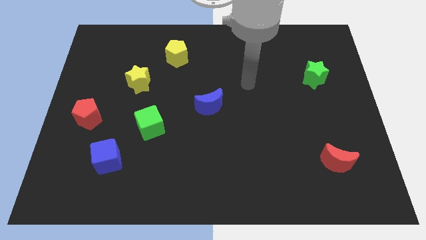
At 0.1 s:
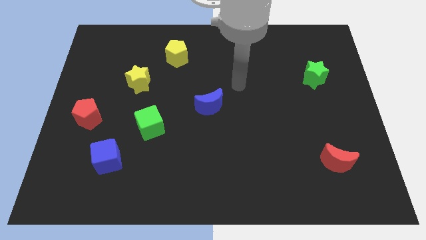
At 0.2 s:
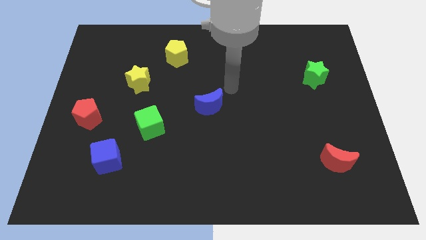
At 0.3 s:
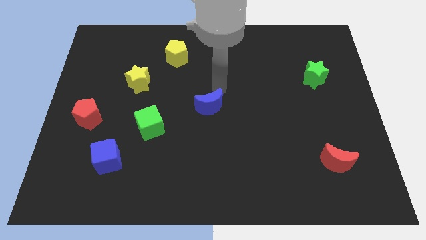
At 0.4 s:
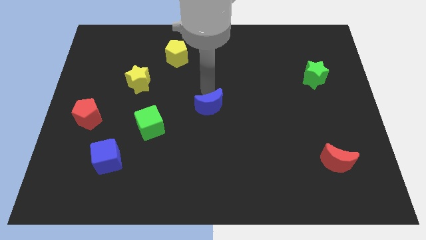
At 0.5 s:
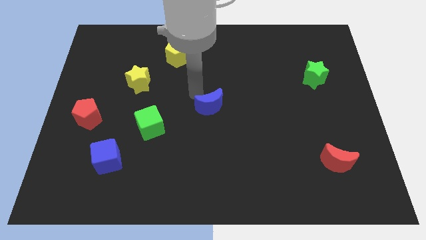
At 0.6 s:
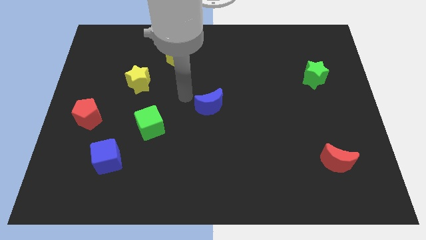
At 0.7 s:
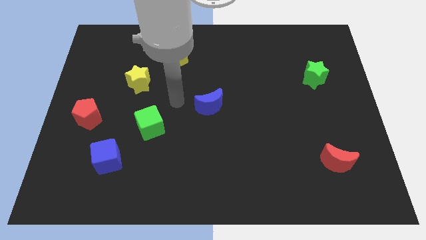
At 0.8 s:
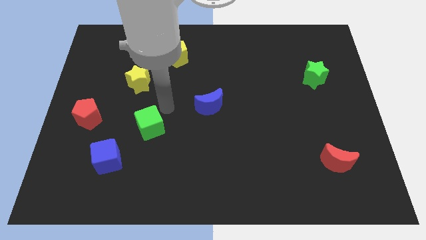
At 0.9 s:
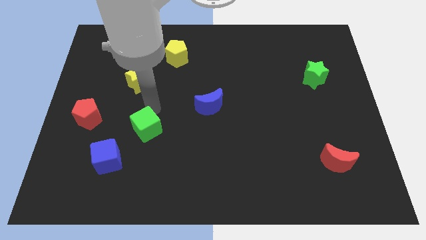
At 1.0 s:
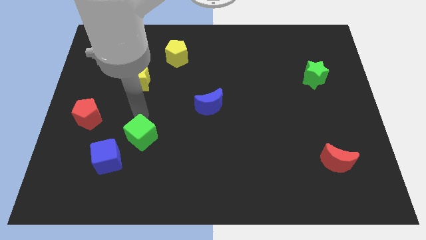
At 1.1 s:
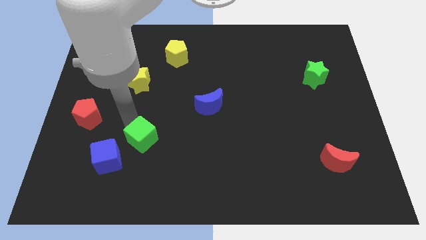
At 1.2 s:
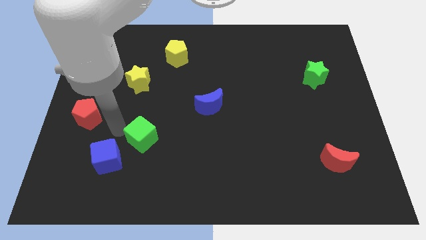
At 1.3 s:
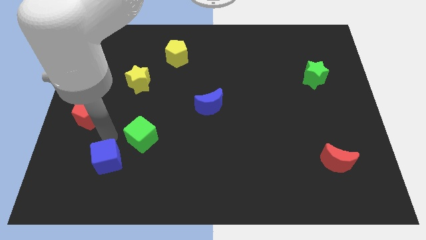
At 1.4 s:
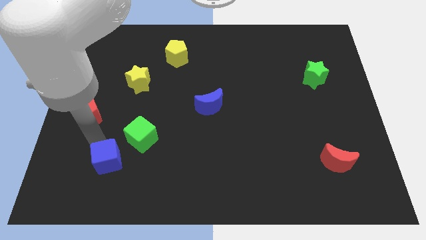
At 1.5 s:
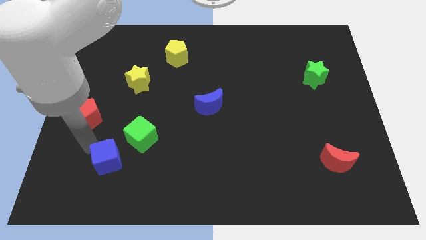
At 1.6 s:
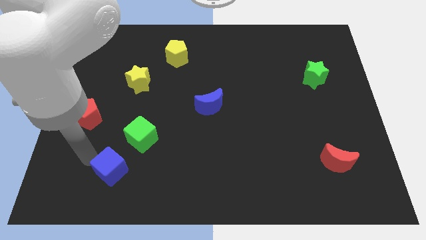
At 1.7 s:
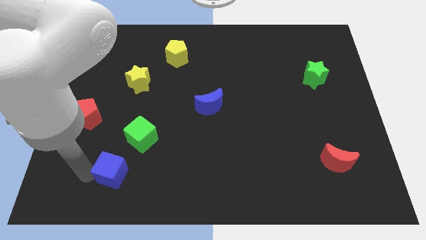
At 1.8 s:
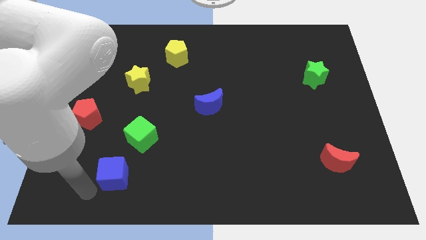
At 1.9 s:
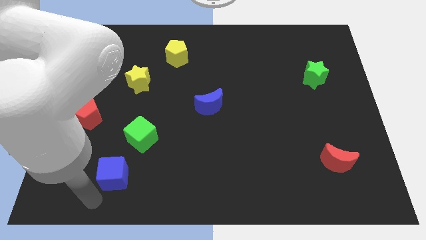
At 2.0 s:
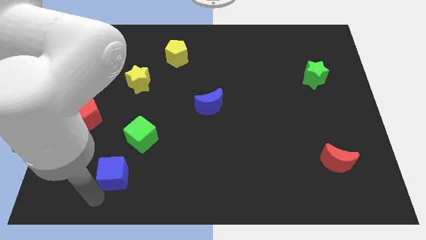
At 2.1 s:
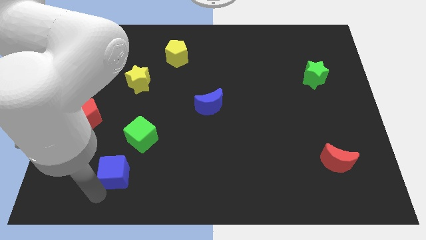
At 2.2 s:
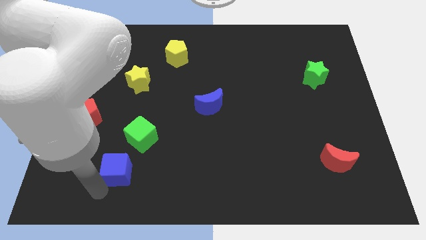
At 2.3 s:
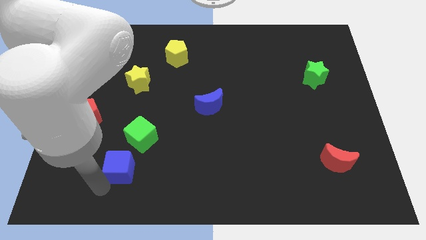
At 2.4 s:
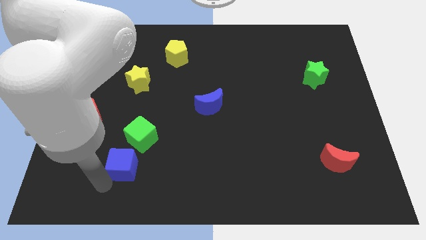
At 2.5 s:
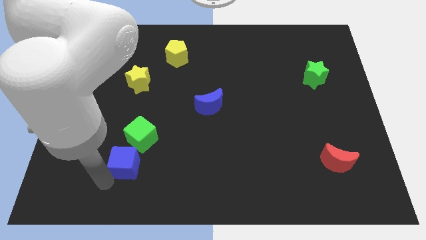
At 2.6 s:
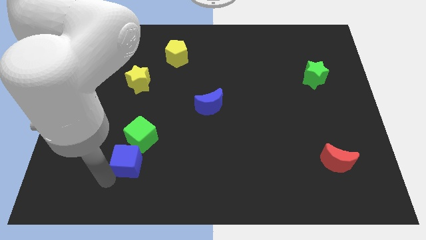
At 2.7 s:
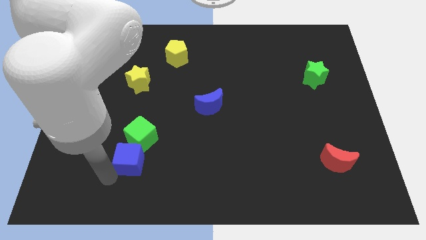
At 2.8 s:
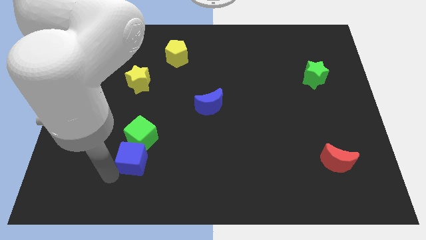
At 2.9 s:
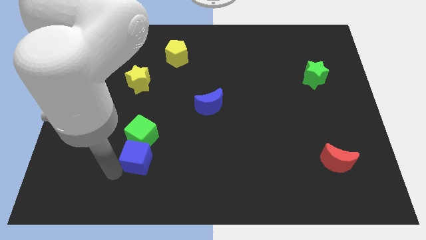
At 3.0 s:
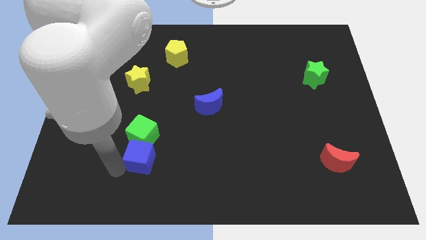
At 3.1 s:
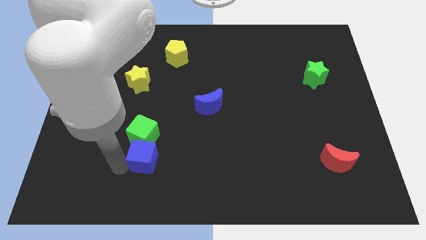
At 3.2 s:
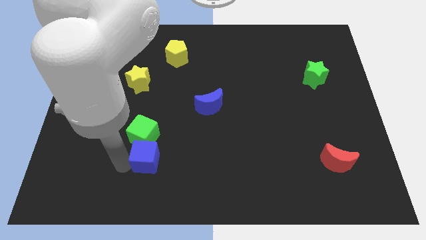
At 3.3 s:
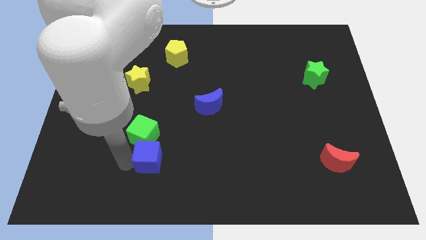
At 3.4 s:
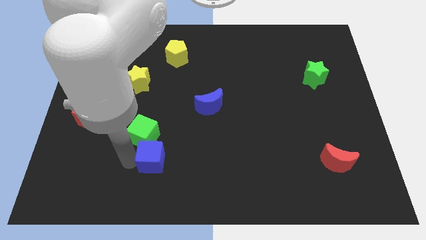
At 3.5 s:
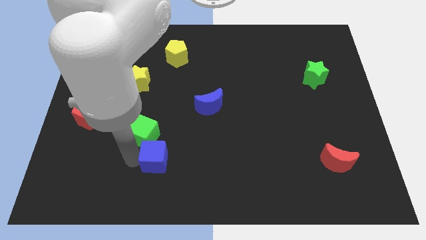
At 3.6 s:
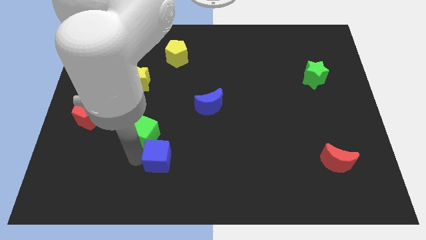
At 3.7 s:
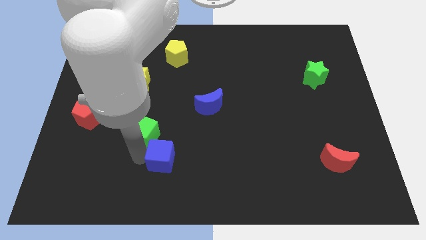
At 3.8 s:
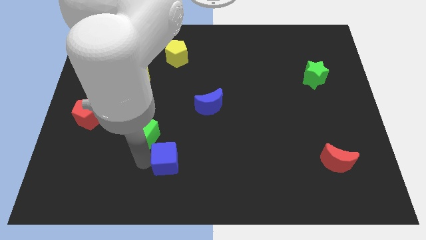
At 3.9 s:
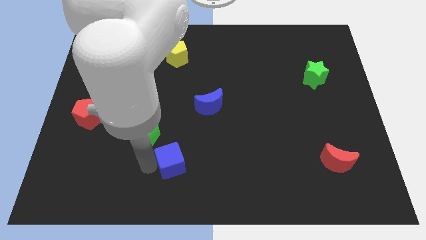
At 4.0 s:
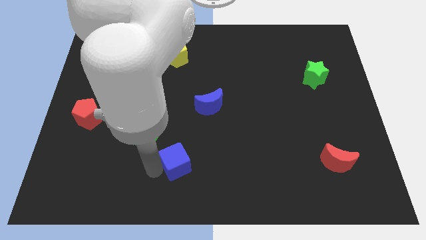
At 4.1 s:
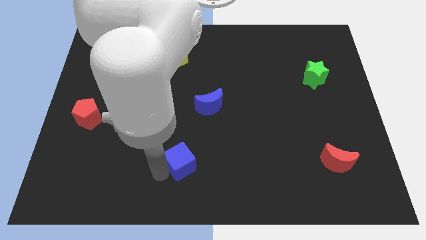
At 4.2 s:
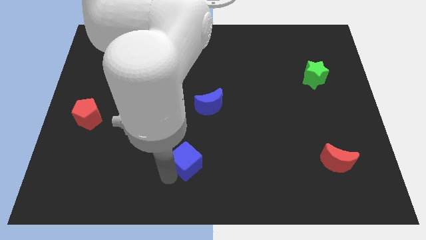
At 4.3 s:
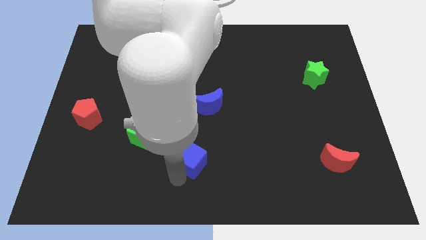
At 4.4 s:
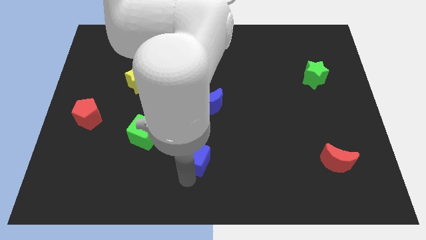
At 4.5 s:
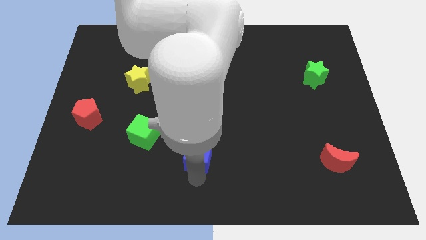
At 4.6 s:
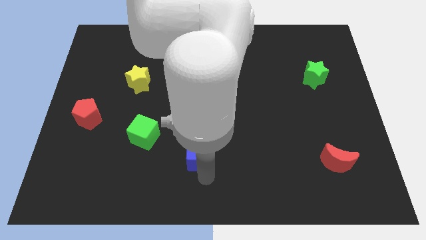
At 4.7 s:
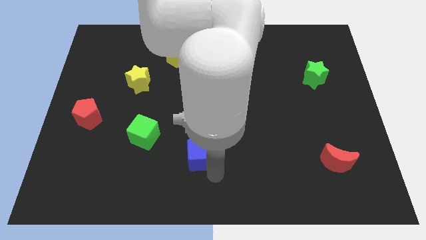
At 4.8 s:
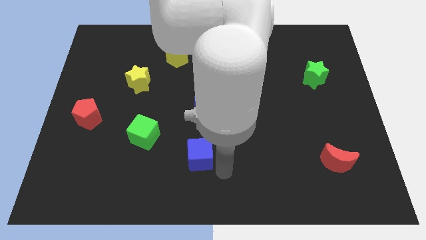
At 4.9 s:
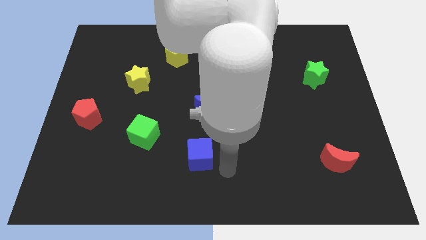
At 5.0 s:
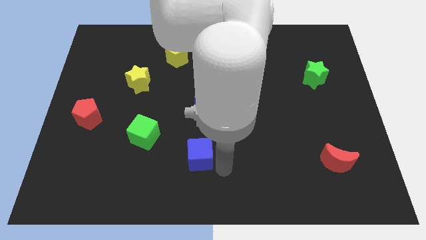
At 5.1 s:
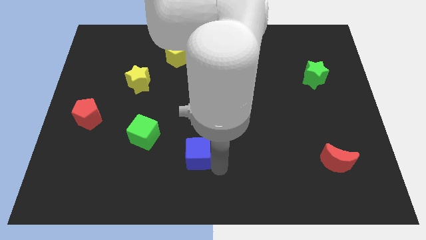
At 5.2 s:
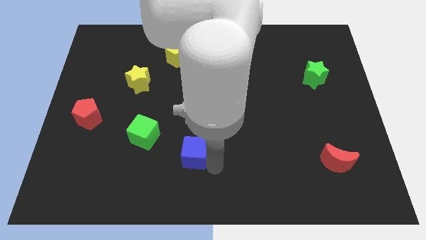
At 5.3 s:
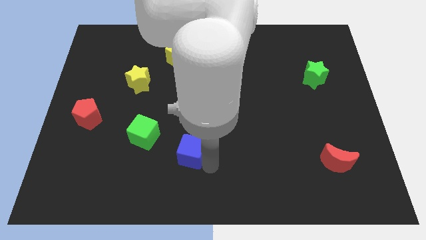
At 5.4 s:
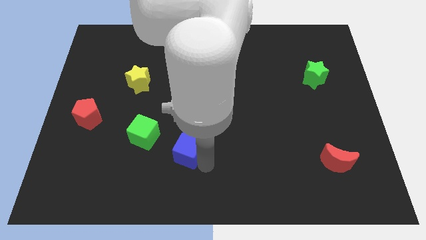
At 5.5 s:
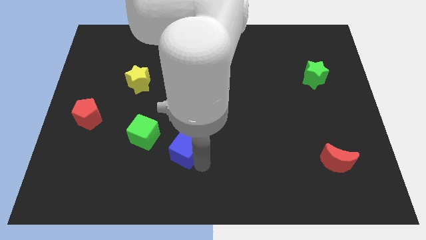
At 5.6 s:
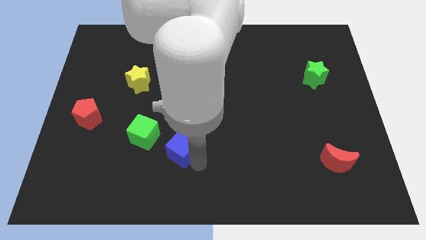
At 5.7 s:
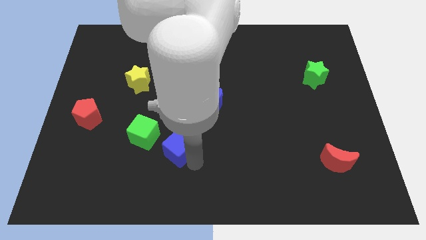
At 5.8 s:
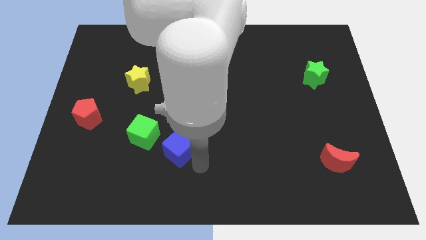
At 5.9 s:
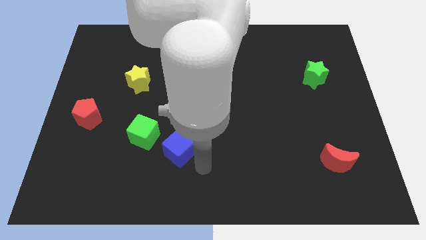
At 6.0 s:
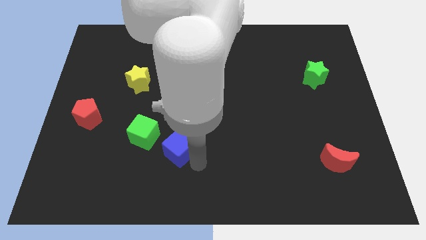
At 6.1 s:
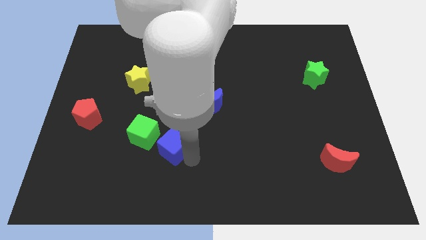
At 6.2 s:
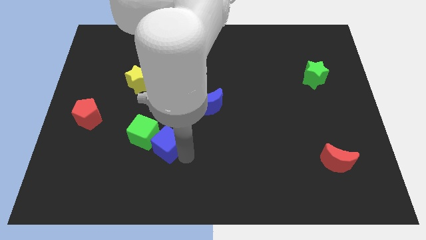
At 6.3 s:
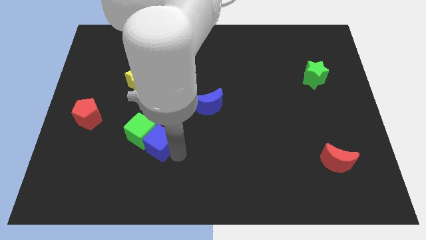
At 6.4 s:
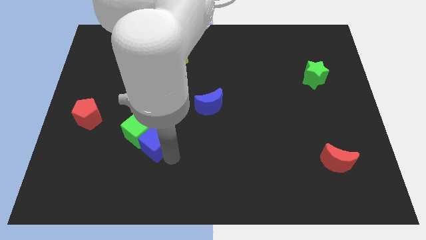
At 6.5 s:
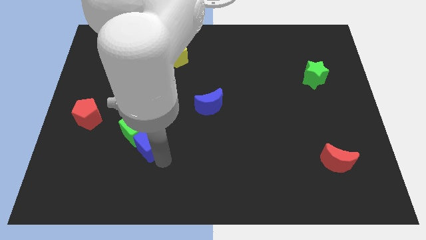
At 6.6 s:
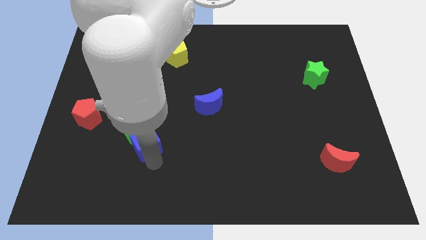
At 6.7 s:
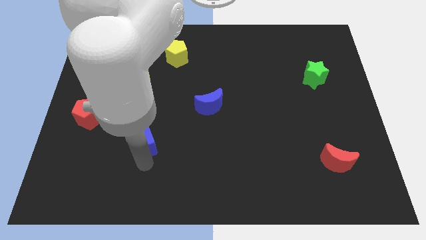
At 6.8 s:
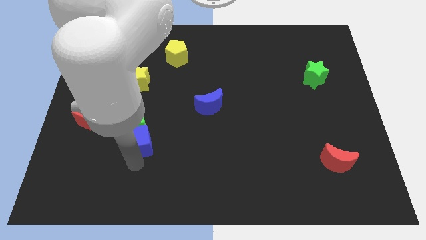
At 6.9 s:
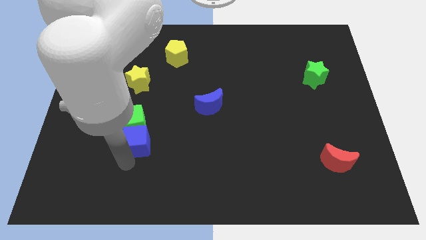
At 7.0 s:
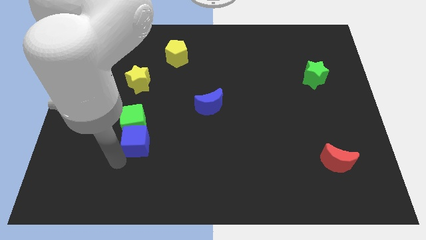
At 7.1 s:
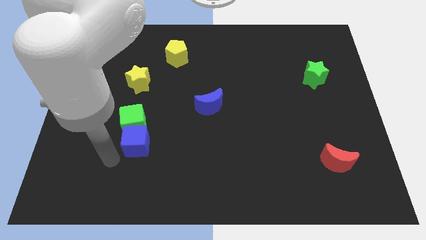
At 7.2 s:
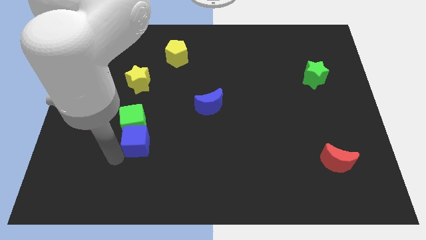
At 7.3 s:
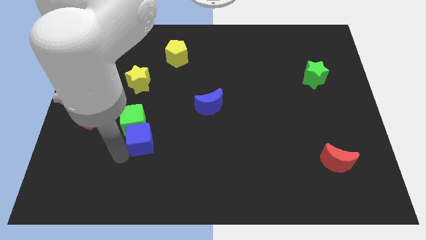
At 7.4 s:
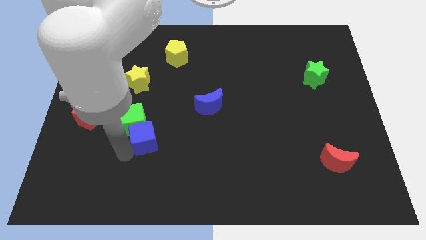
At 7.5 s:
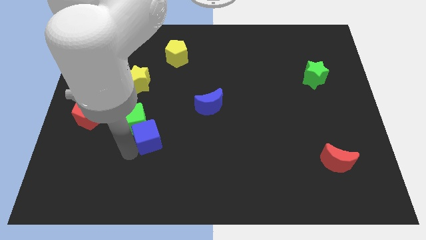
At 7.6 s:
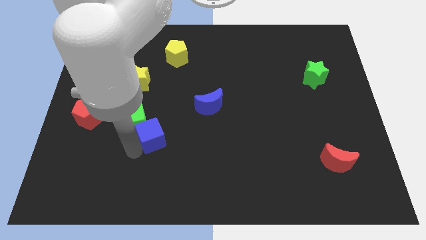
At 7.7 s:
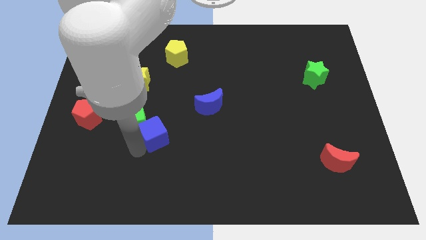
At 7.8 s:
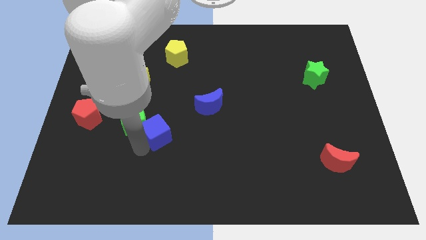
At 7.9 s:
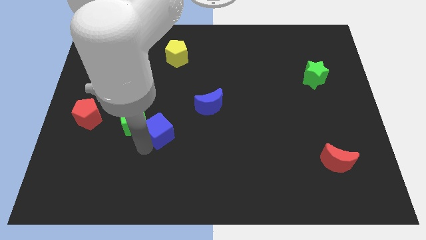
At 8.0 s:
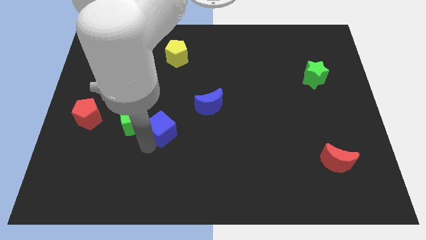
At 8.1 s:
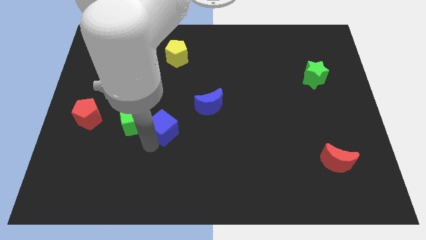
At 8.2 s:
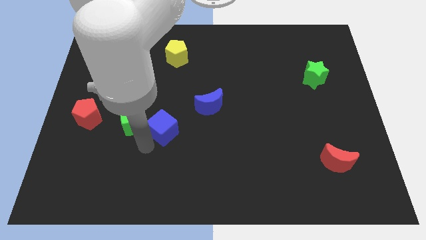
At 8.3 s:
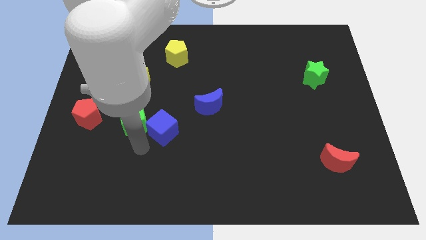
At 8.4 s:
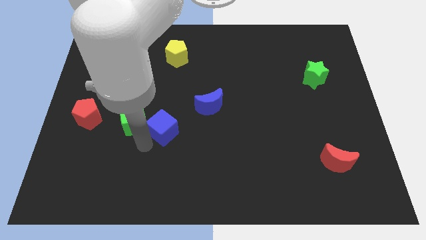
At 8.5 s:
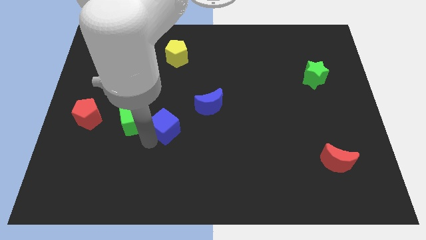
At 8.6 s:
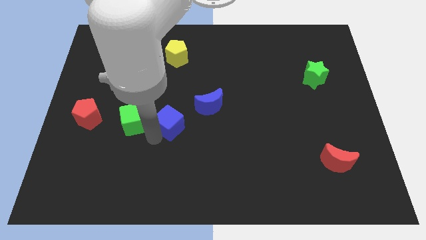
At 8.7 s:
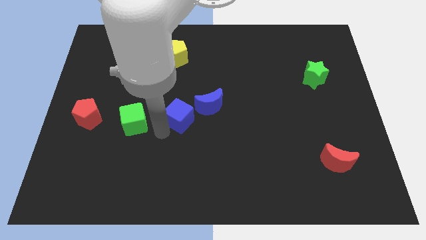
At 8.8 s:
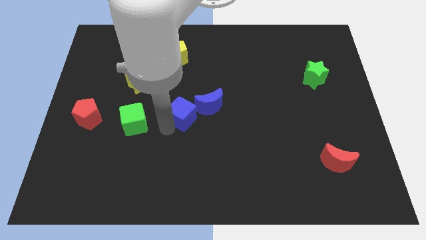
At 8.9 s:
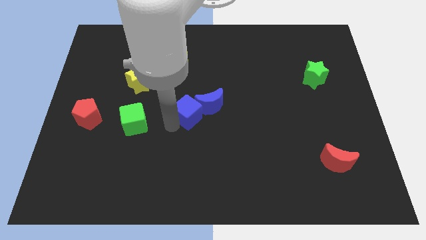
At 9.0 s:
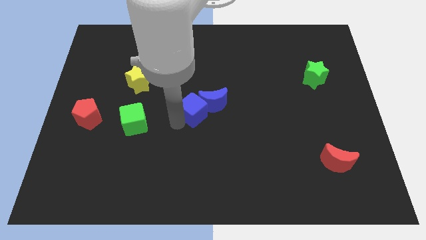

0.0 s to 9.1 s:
push the blue cube diagonally upwards and to the right
